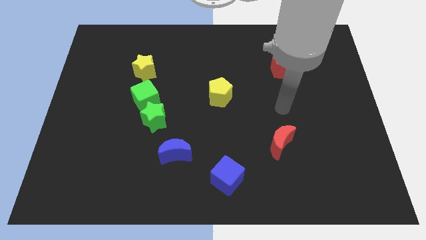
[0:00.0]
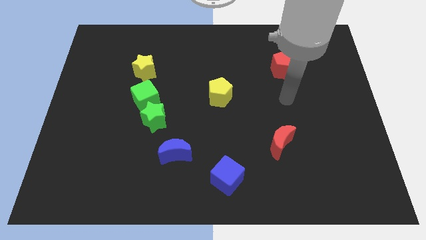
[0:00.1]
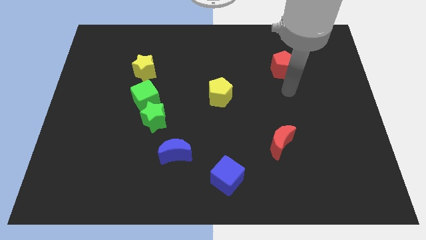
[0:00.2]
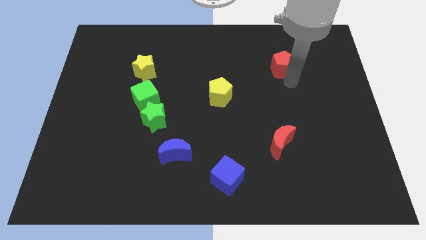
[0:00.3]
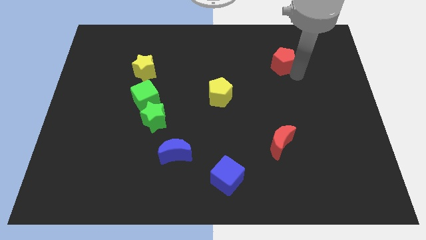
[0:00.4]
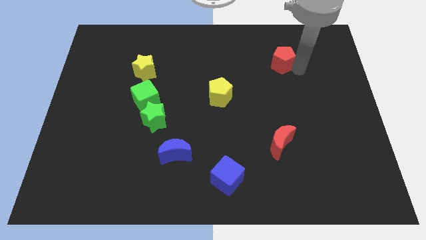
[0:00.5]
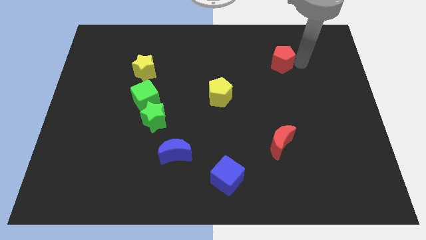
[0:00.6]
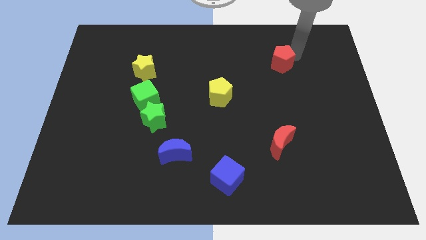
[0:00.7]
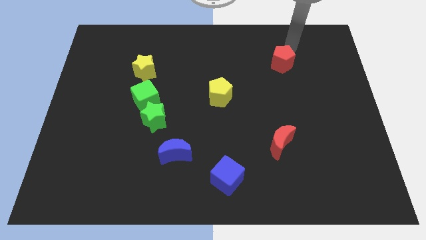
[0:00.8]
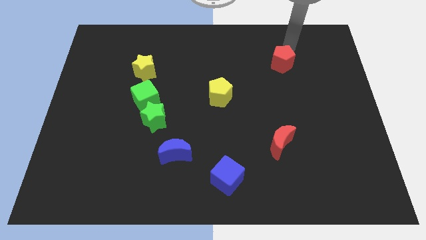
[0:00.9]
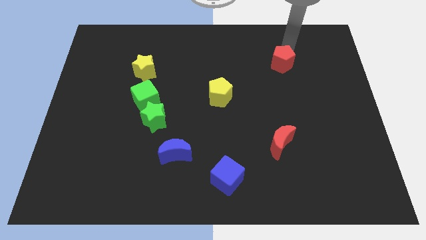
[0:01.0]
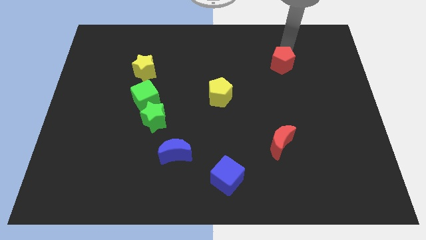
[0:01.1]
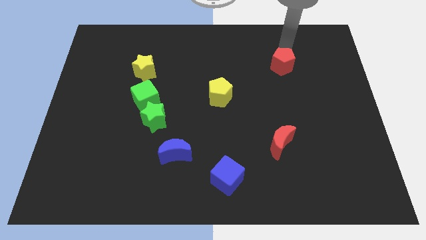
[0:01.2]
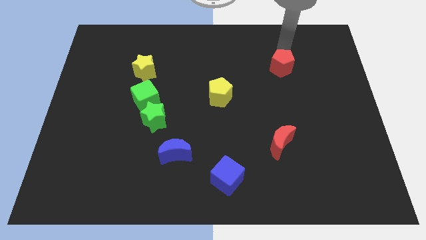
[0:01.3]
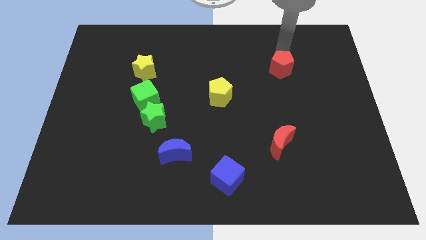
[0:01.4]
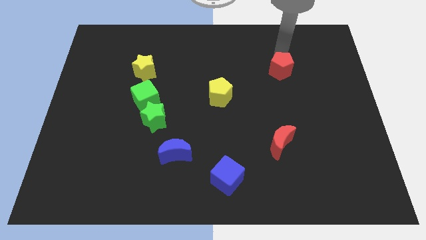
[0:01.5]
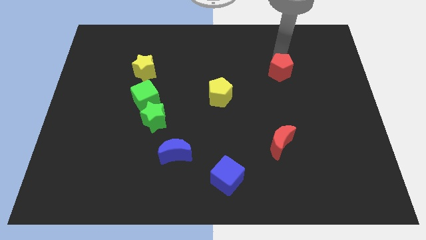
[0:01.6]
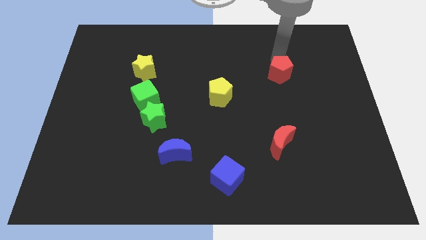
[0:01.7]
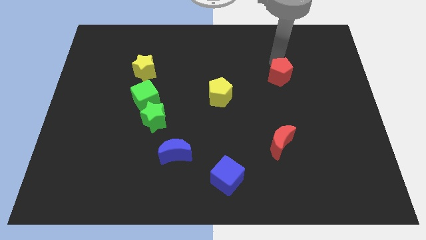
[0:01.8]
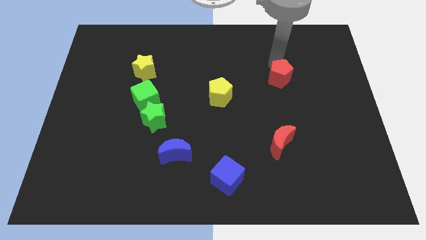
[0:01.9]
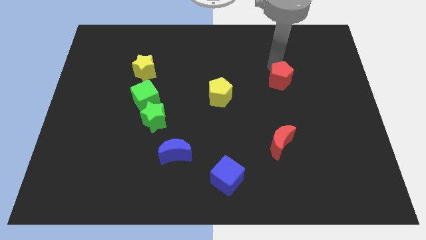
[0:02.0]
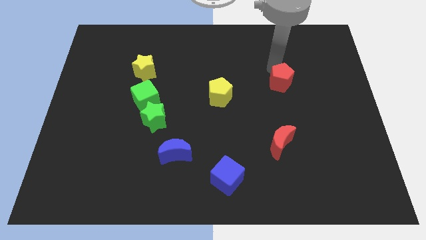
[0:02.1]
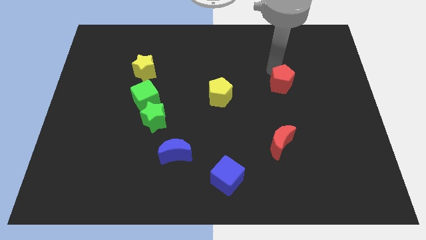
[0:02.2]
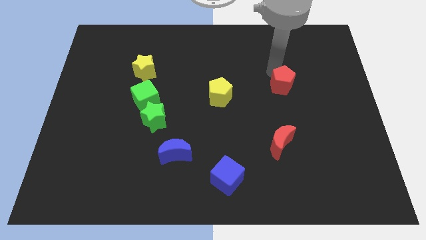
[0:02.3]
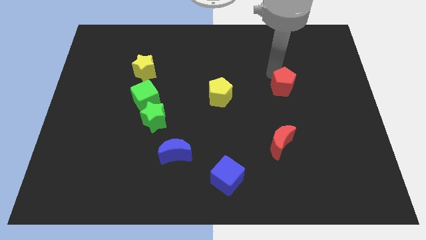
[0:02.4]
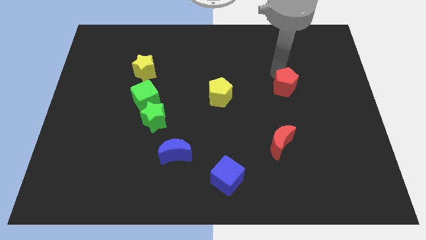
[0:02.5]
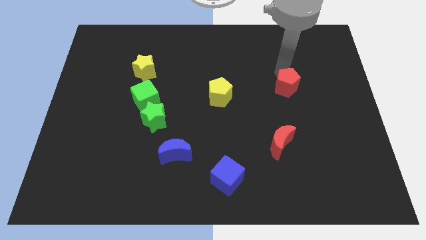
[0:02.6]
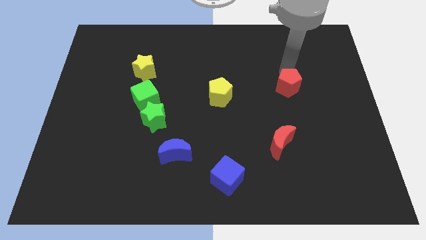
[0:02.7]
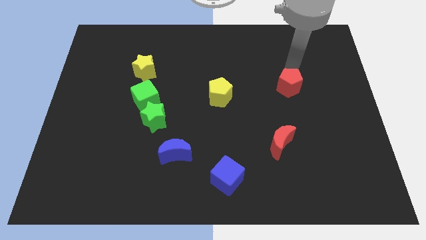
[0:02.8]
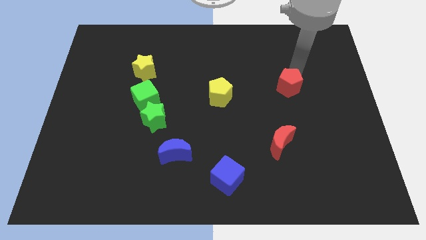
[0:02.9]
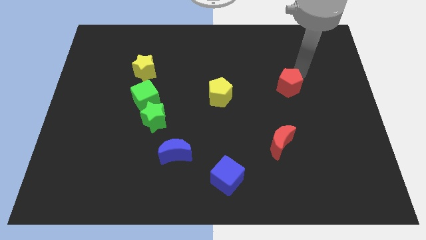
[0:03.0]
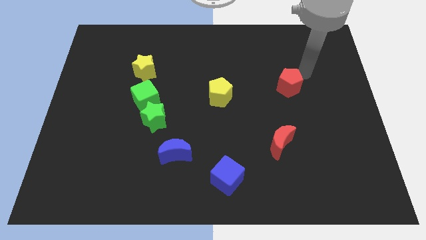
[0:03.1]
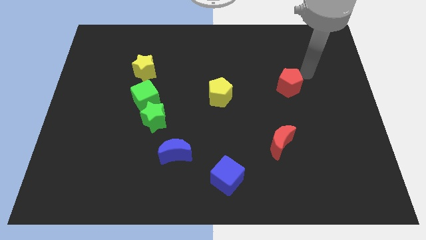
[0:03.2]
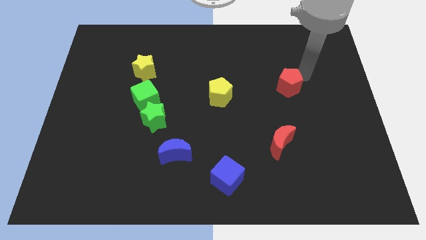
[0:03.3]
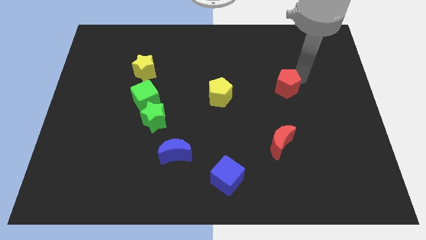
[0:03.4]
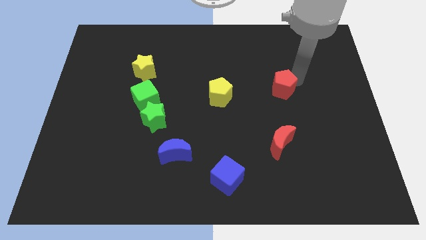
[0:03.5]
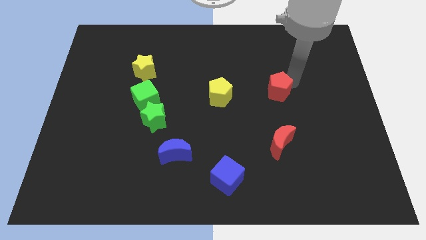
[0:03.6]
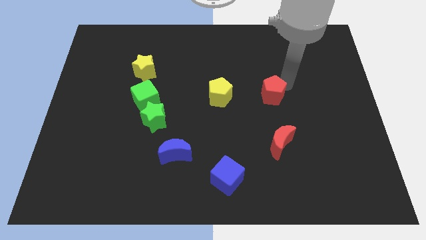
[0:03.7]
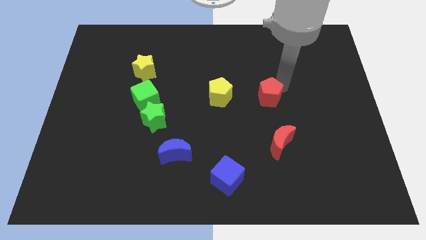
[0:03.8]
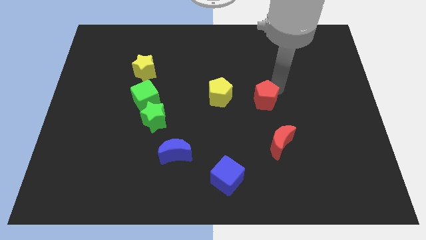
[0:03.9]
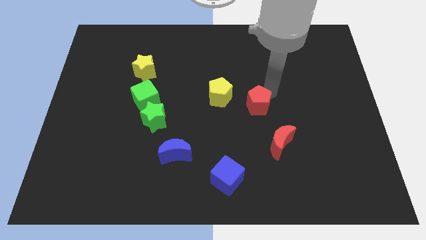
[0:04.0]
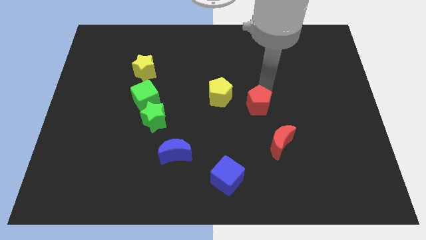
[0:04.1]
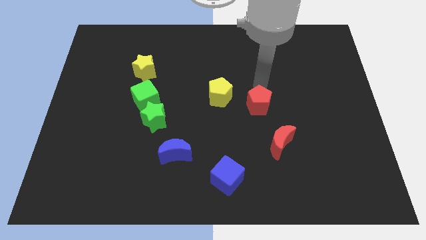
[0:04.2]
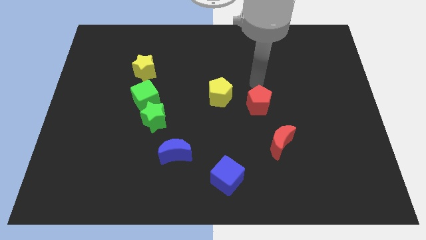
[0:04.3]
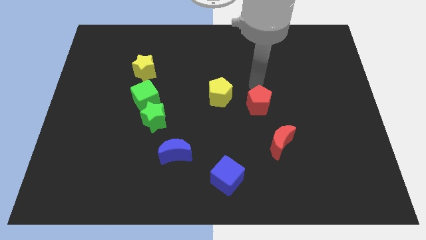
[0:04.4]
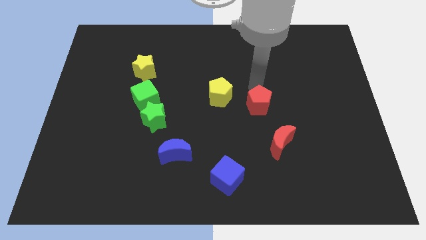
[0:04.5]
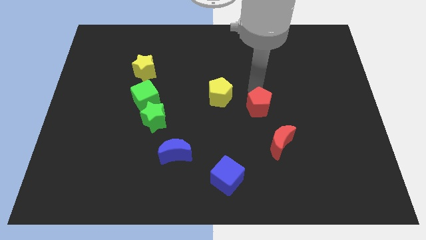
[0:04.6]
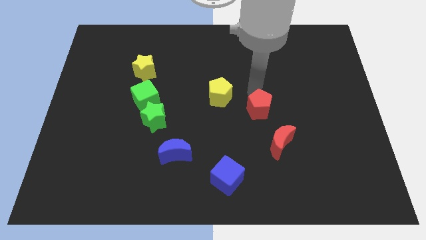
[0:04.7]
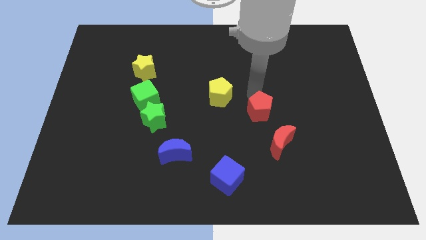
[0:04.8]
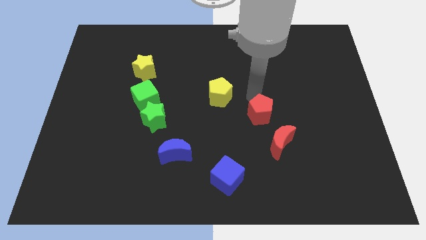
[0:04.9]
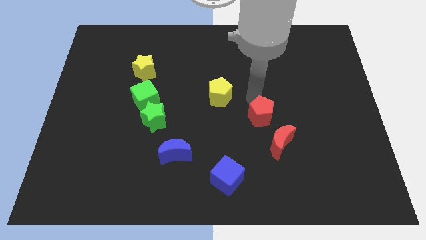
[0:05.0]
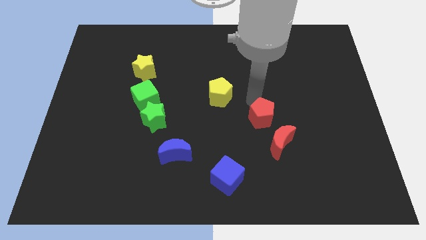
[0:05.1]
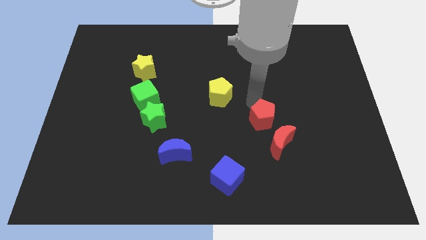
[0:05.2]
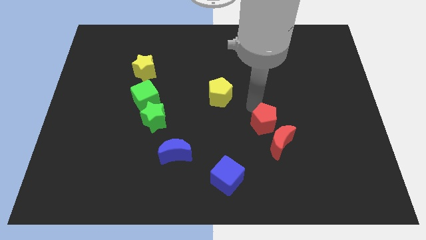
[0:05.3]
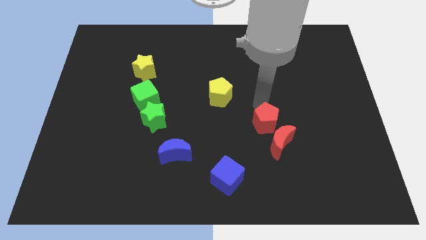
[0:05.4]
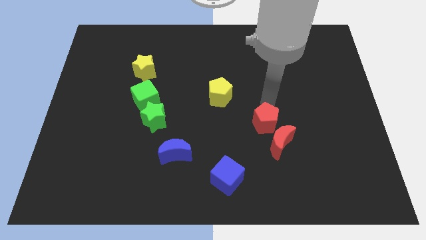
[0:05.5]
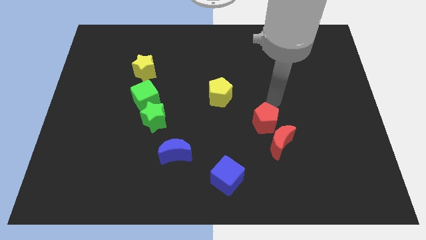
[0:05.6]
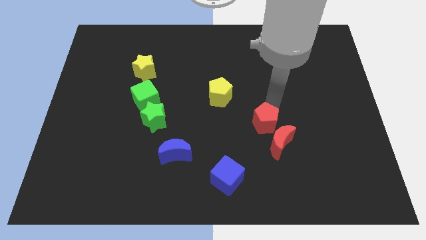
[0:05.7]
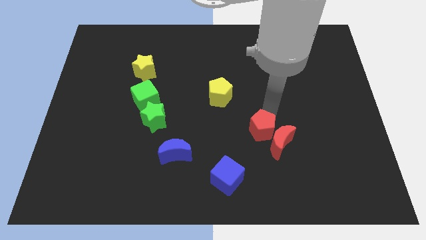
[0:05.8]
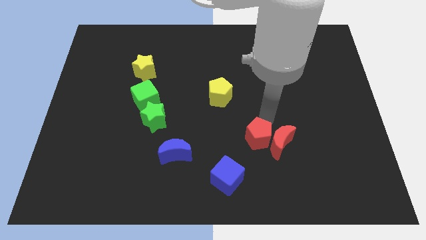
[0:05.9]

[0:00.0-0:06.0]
move the red pentagon to the top right side of the blue cube

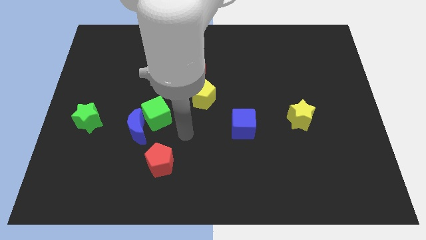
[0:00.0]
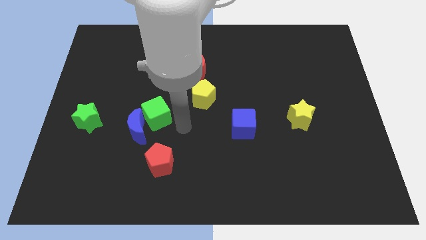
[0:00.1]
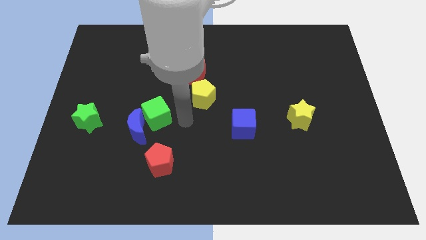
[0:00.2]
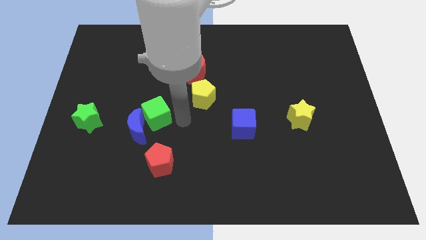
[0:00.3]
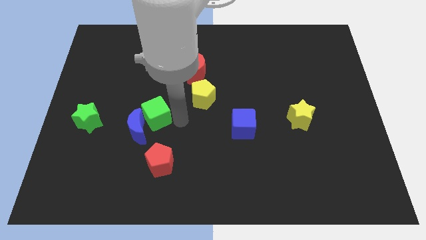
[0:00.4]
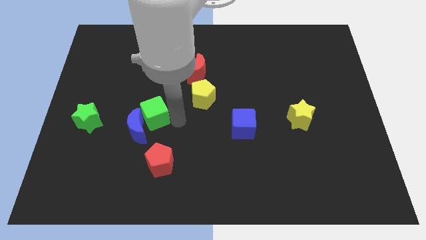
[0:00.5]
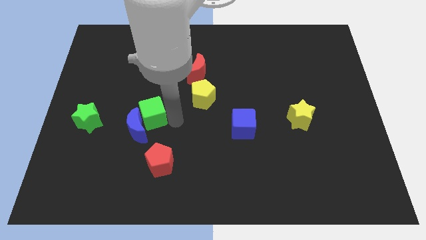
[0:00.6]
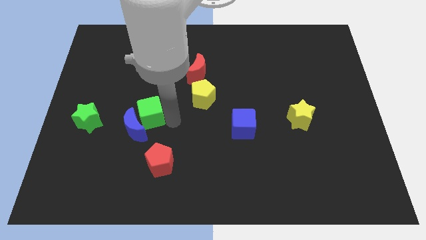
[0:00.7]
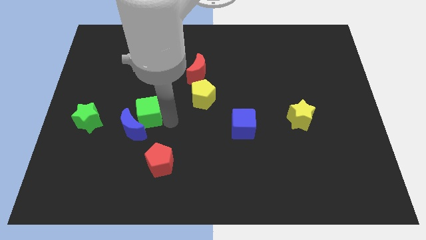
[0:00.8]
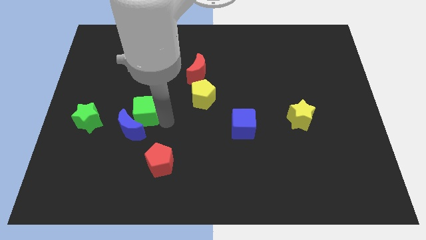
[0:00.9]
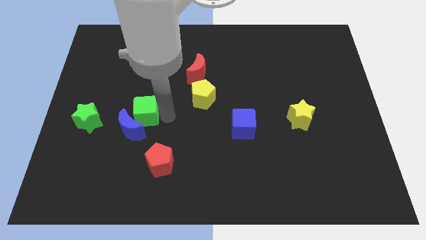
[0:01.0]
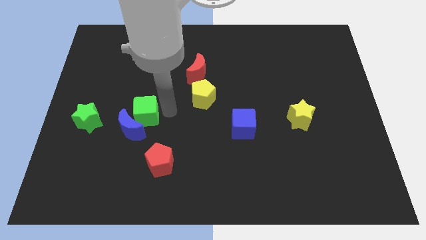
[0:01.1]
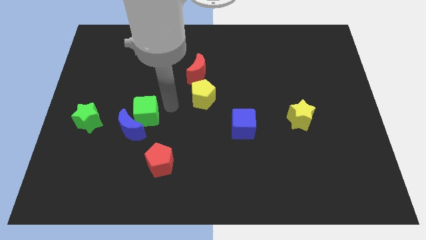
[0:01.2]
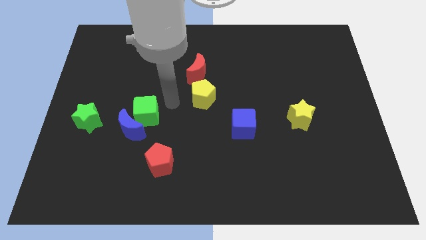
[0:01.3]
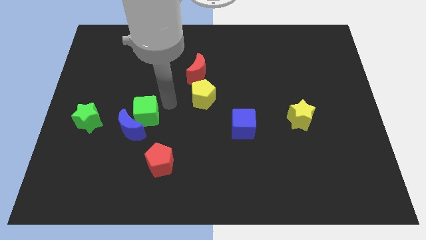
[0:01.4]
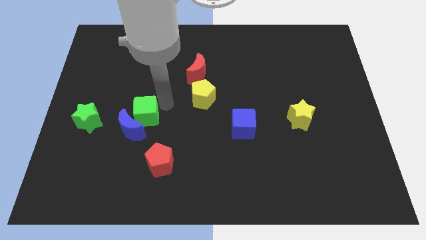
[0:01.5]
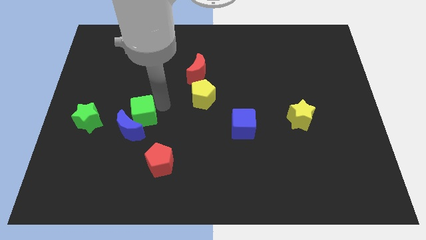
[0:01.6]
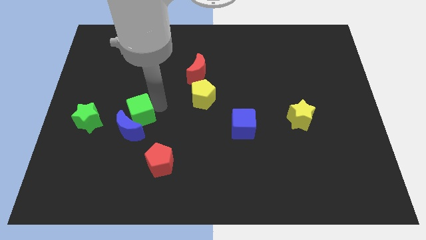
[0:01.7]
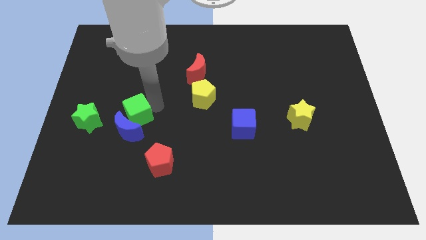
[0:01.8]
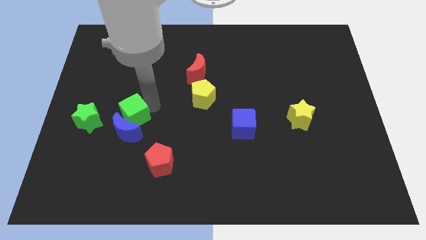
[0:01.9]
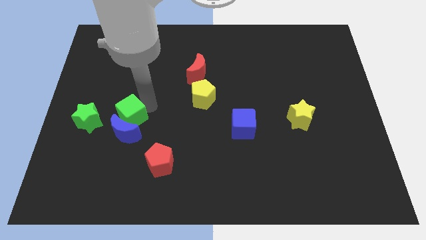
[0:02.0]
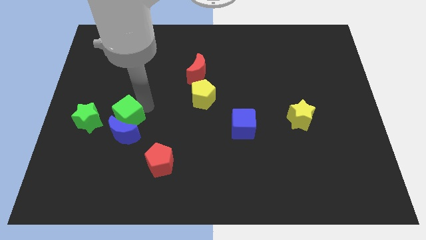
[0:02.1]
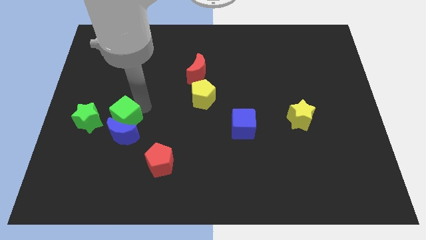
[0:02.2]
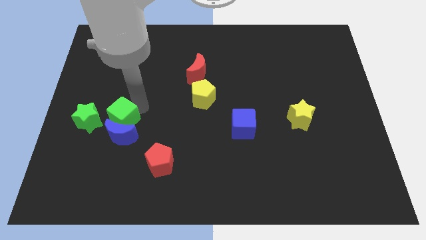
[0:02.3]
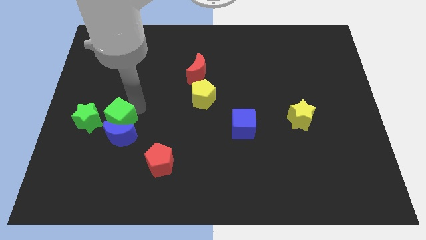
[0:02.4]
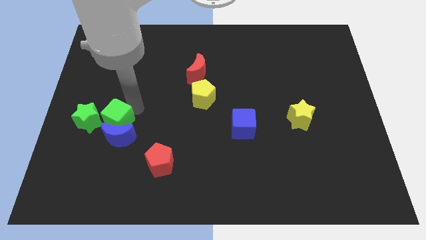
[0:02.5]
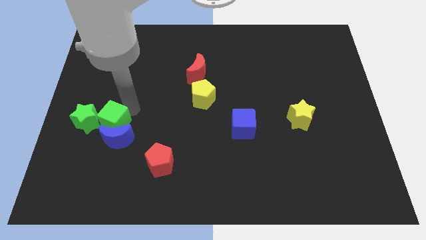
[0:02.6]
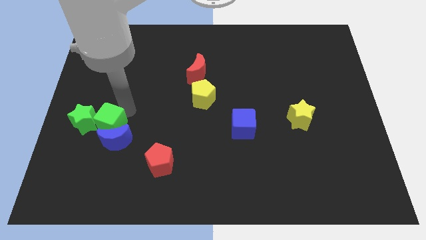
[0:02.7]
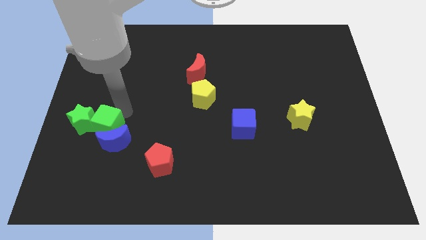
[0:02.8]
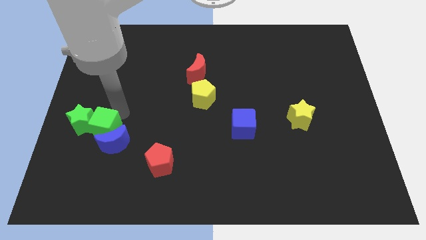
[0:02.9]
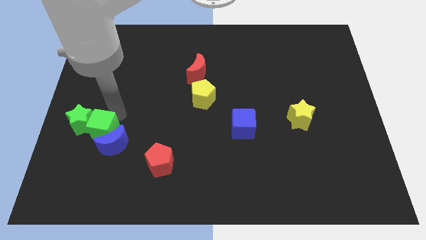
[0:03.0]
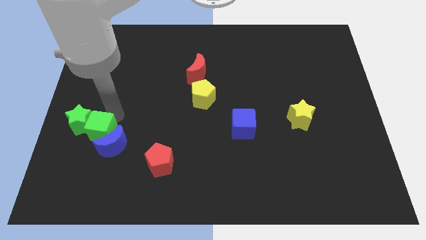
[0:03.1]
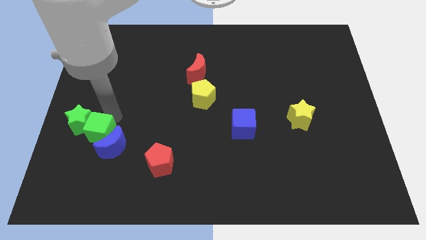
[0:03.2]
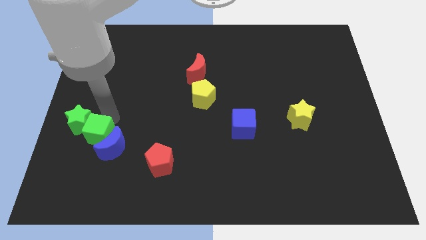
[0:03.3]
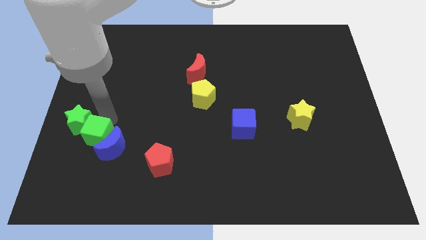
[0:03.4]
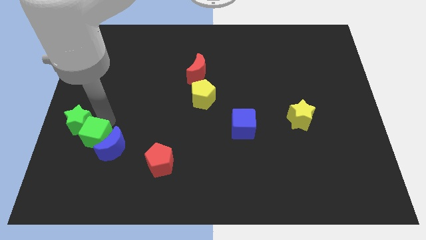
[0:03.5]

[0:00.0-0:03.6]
move the green cube to the bottom of the green star
